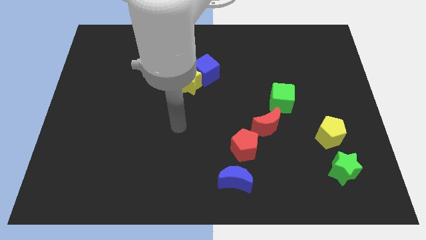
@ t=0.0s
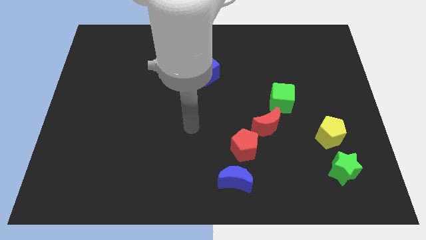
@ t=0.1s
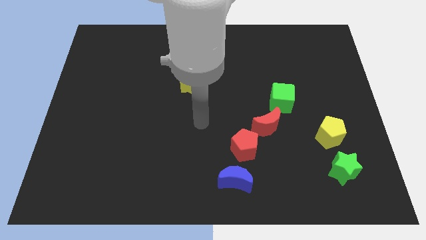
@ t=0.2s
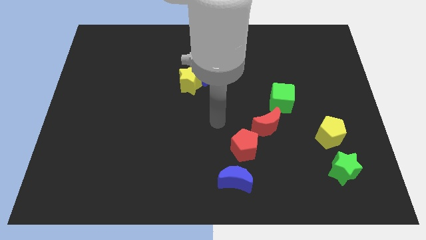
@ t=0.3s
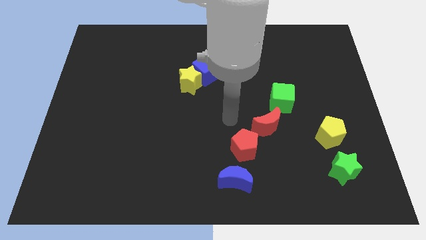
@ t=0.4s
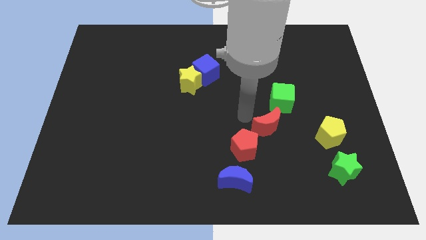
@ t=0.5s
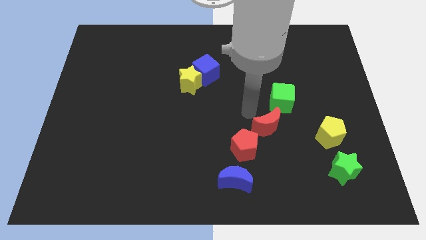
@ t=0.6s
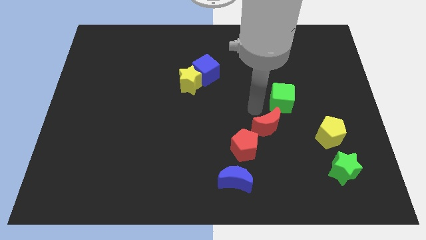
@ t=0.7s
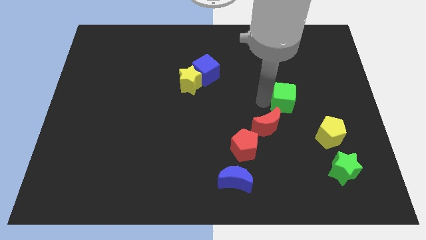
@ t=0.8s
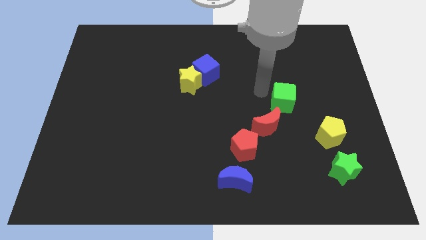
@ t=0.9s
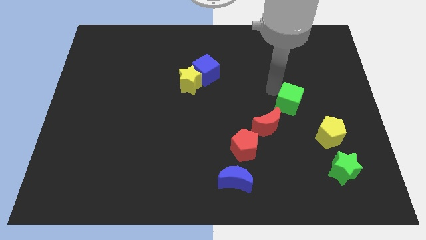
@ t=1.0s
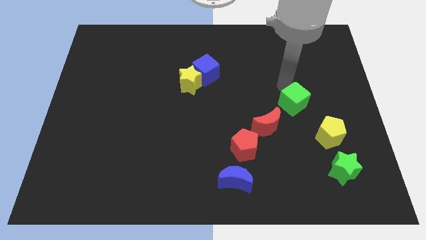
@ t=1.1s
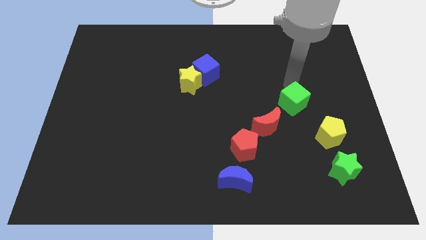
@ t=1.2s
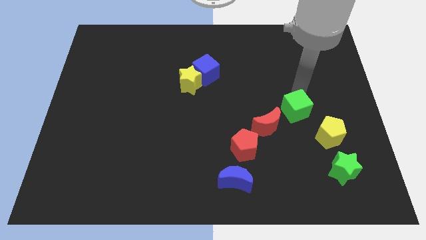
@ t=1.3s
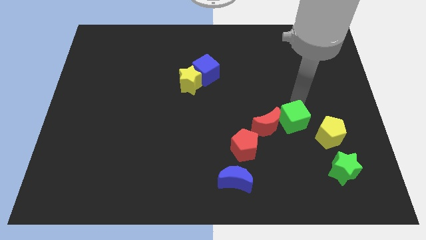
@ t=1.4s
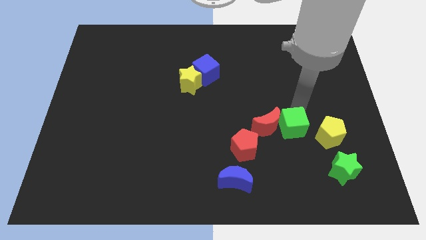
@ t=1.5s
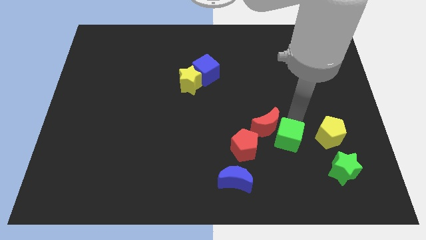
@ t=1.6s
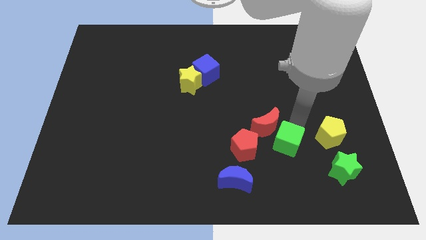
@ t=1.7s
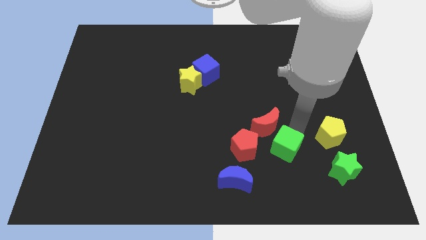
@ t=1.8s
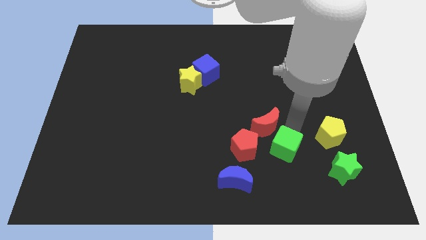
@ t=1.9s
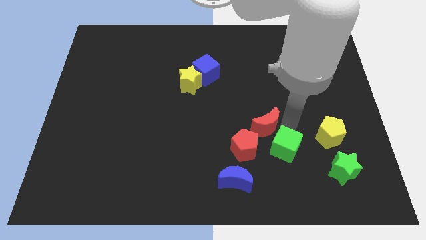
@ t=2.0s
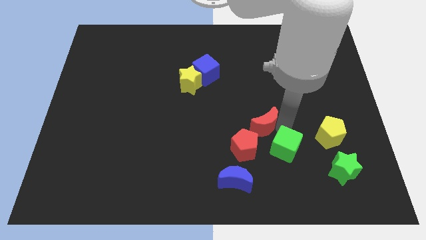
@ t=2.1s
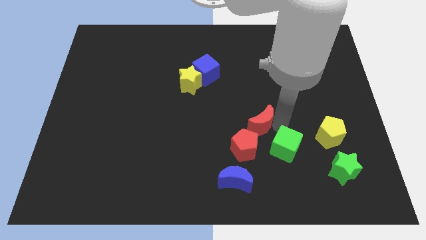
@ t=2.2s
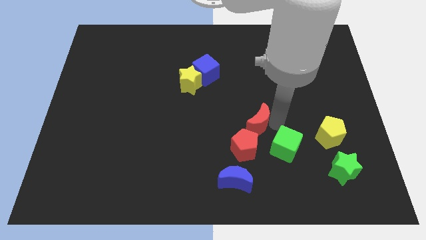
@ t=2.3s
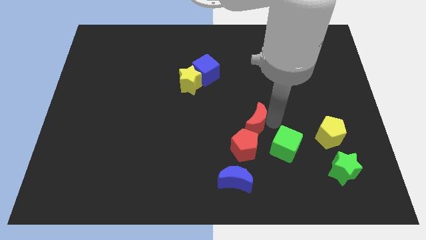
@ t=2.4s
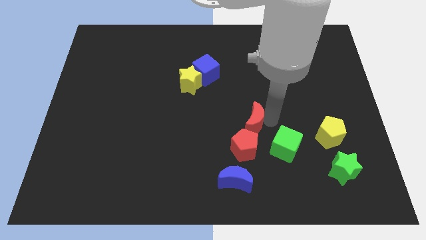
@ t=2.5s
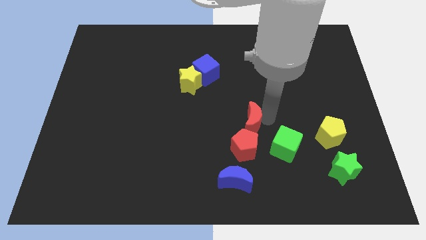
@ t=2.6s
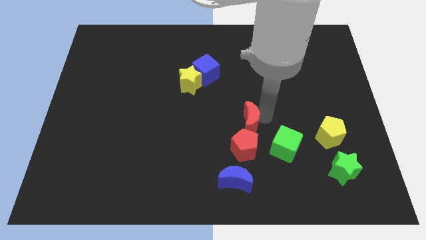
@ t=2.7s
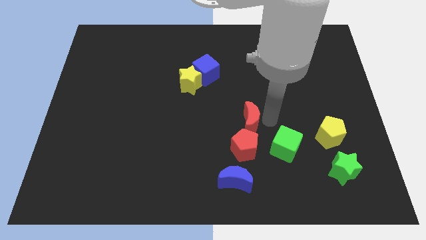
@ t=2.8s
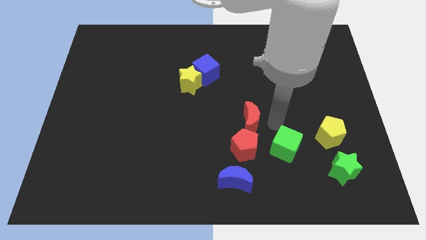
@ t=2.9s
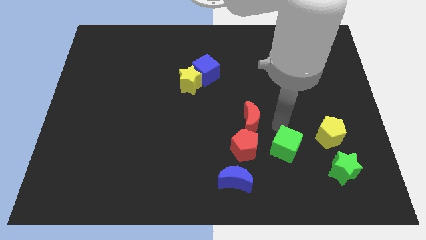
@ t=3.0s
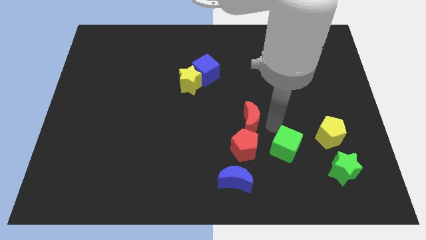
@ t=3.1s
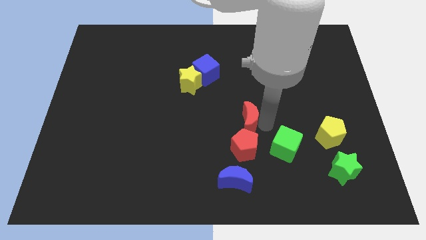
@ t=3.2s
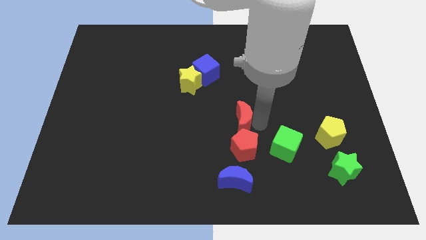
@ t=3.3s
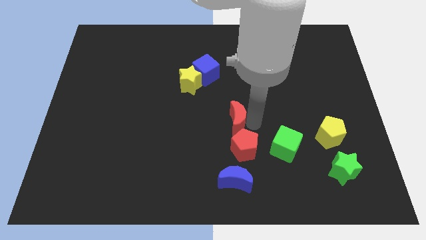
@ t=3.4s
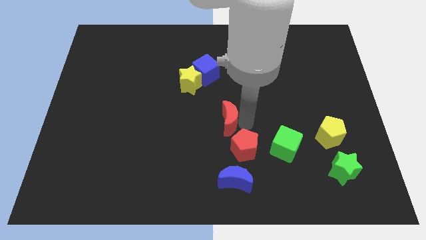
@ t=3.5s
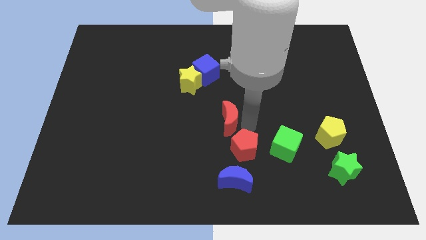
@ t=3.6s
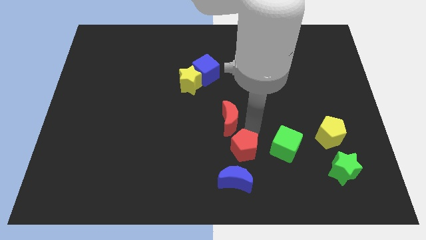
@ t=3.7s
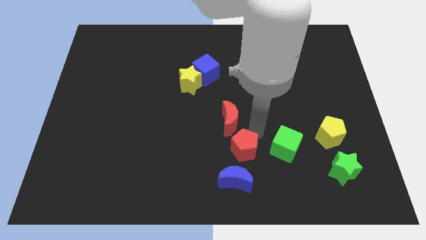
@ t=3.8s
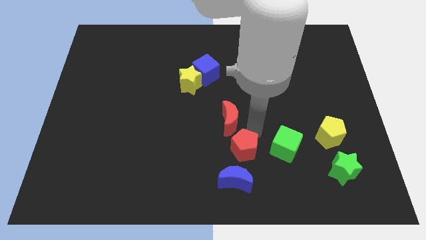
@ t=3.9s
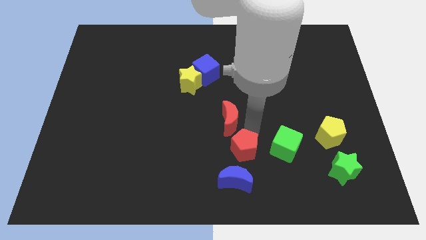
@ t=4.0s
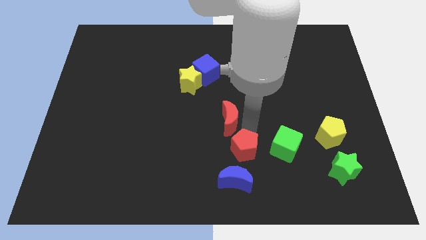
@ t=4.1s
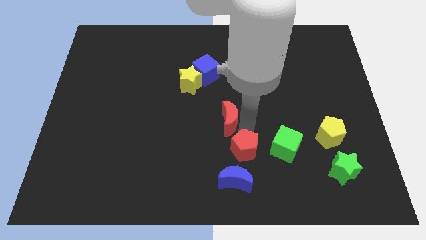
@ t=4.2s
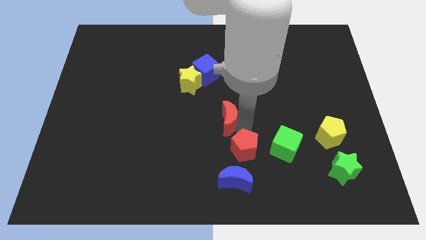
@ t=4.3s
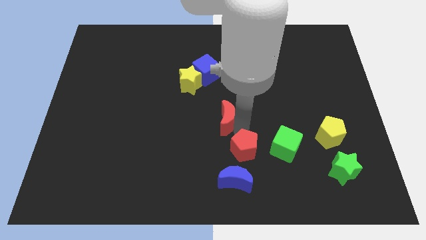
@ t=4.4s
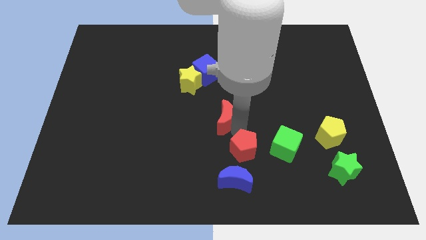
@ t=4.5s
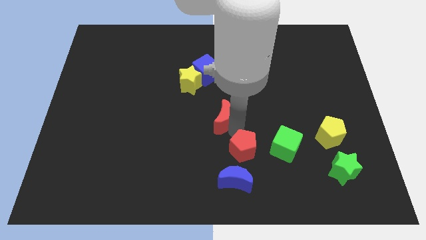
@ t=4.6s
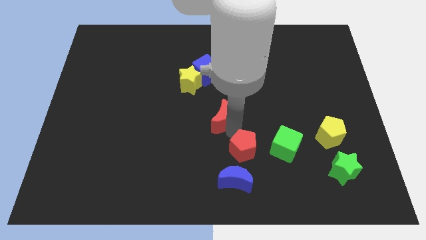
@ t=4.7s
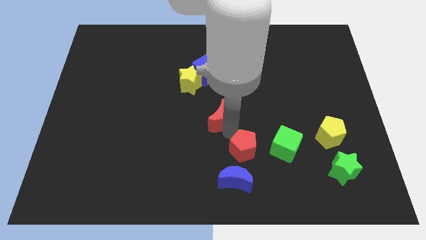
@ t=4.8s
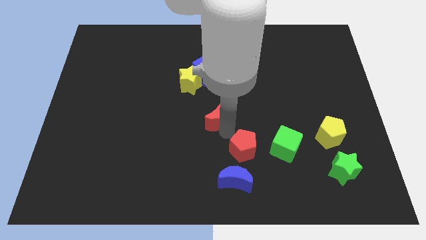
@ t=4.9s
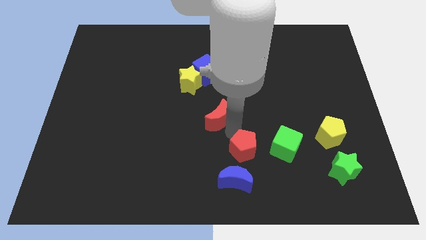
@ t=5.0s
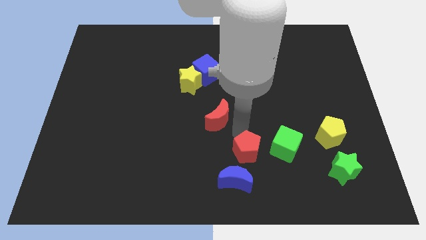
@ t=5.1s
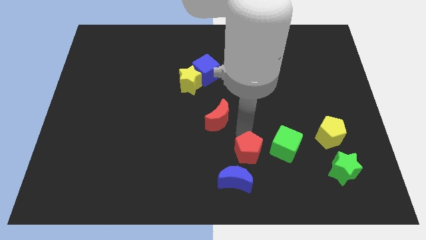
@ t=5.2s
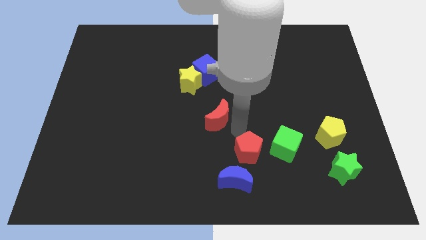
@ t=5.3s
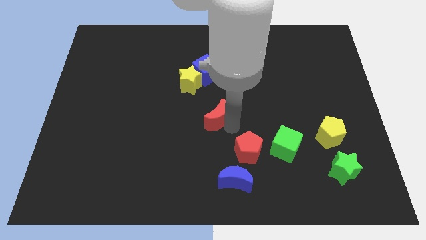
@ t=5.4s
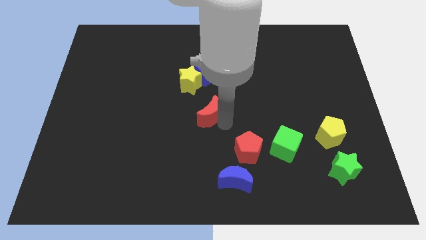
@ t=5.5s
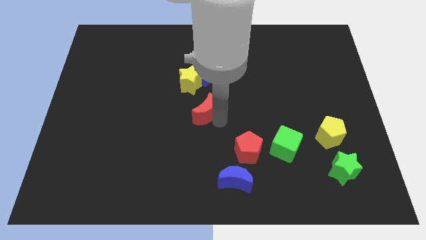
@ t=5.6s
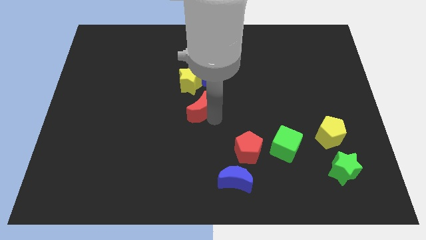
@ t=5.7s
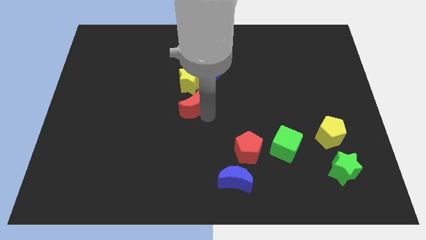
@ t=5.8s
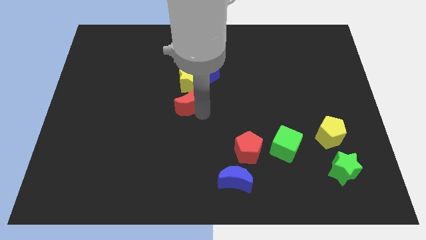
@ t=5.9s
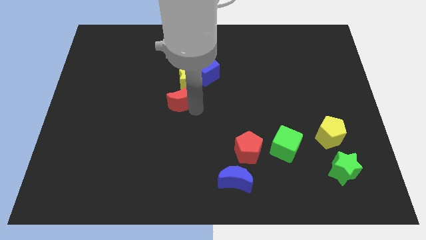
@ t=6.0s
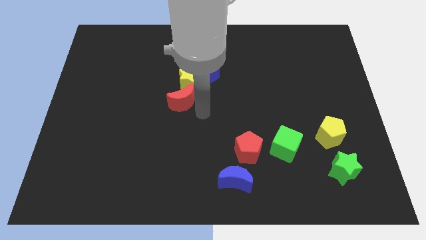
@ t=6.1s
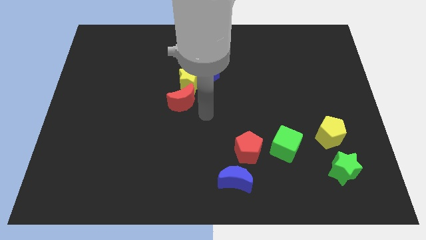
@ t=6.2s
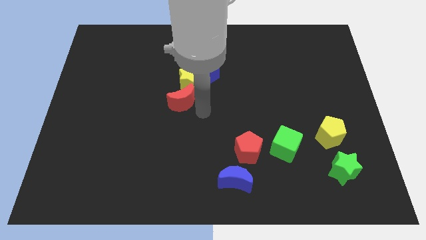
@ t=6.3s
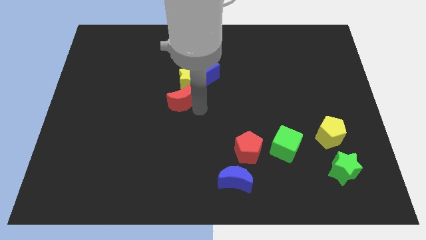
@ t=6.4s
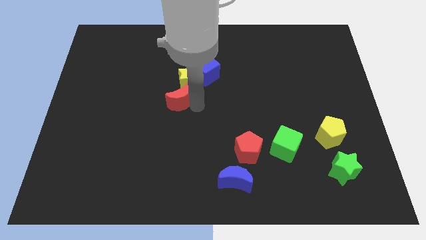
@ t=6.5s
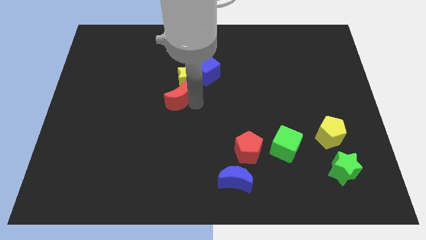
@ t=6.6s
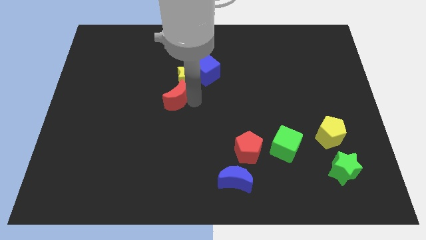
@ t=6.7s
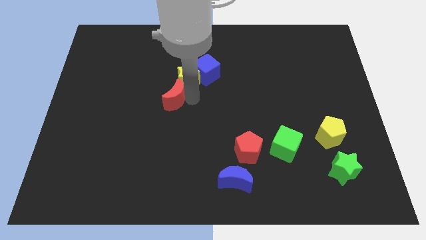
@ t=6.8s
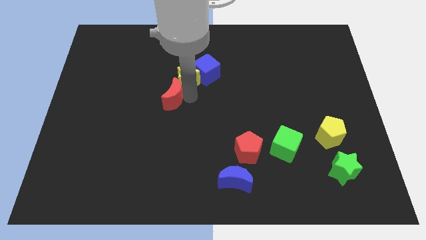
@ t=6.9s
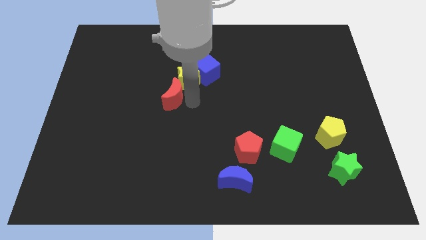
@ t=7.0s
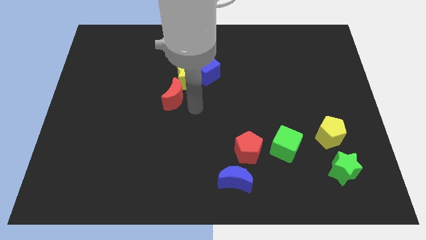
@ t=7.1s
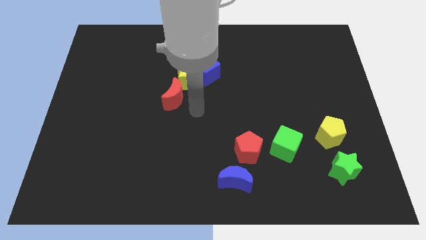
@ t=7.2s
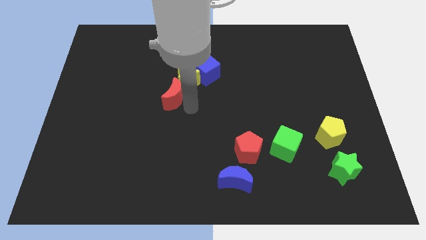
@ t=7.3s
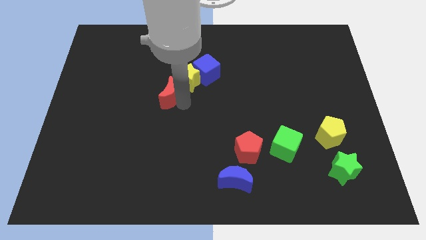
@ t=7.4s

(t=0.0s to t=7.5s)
push the red moon to the left of the yellow star
